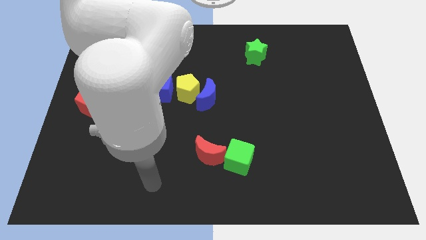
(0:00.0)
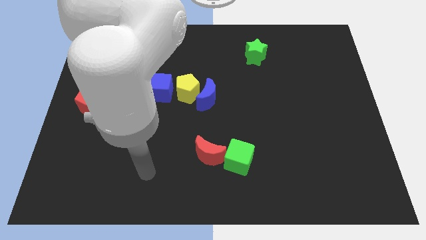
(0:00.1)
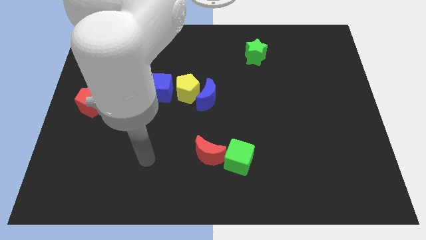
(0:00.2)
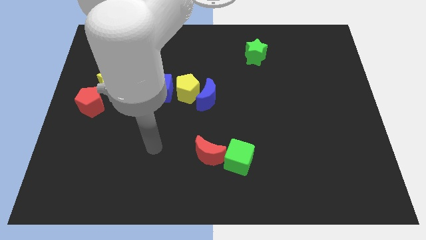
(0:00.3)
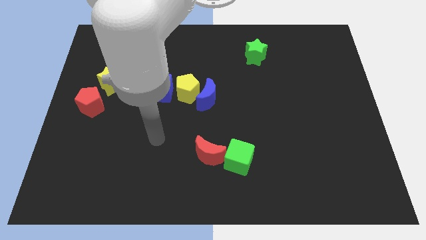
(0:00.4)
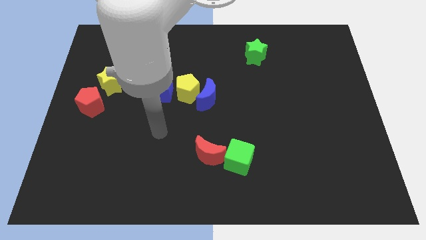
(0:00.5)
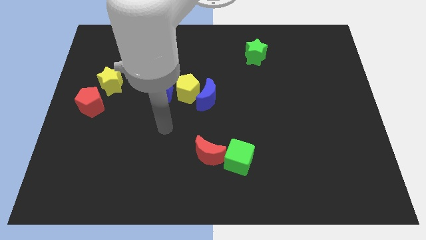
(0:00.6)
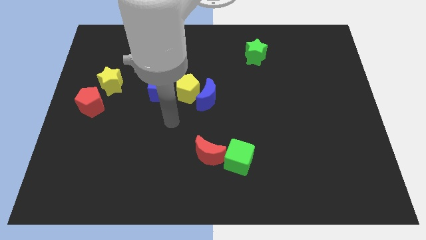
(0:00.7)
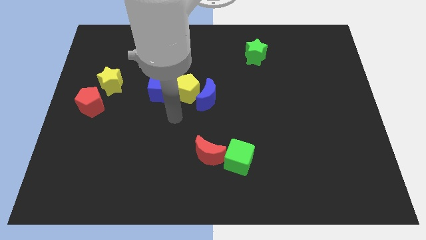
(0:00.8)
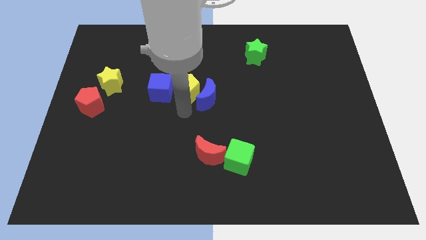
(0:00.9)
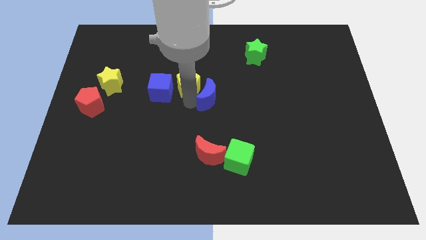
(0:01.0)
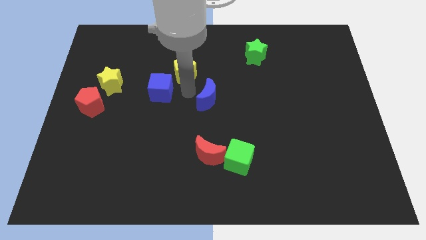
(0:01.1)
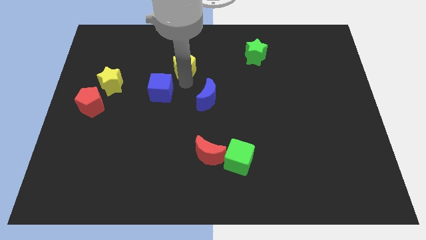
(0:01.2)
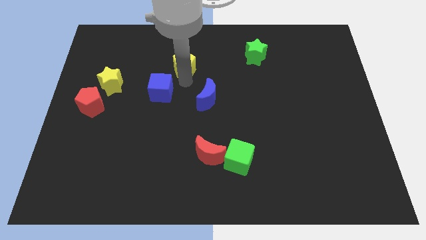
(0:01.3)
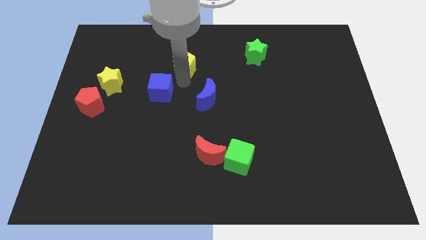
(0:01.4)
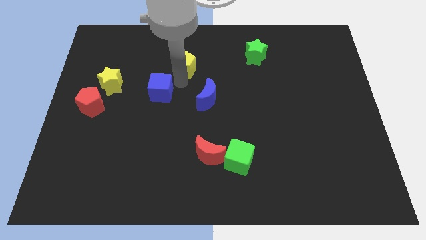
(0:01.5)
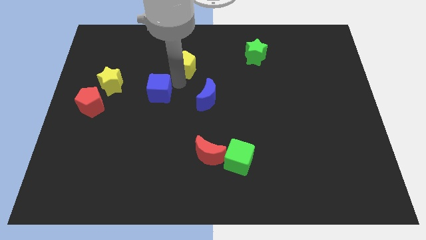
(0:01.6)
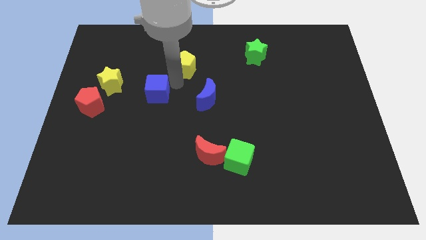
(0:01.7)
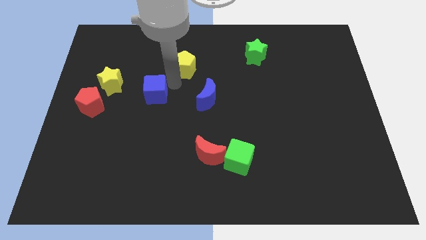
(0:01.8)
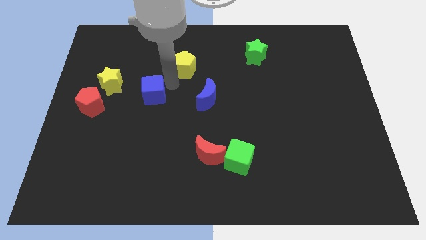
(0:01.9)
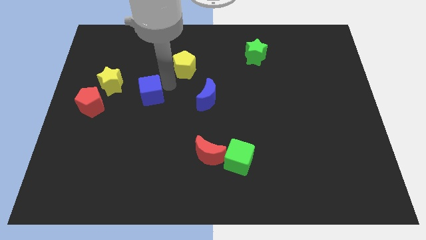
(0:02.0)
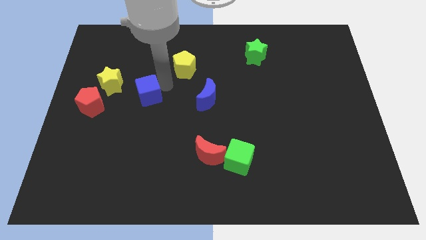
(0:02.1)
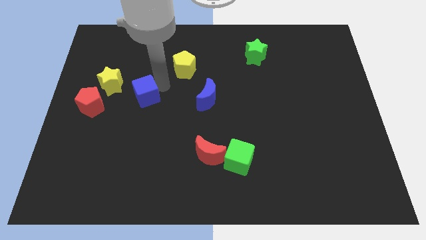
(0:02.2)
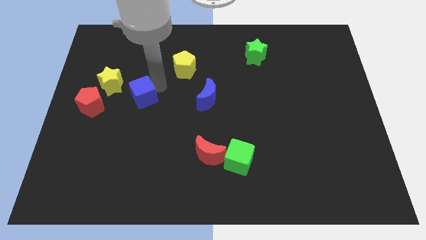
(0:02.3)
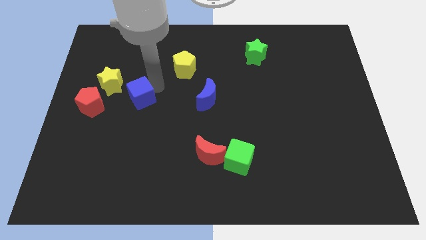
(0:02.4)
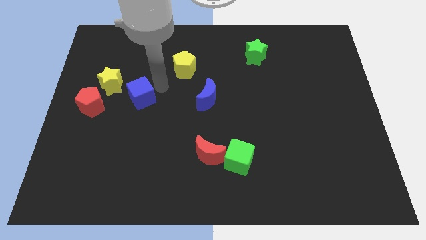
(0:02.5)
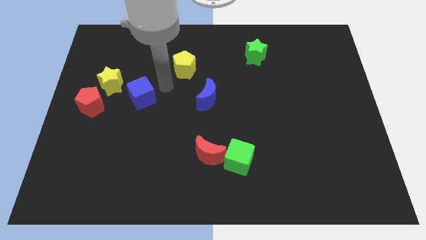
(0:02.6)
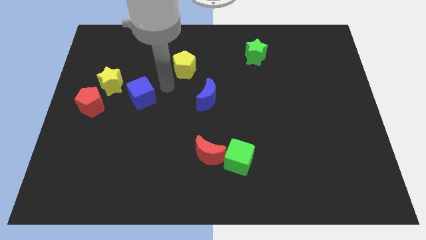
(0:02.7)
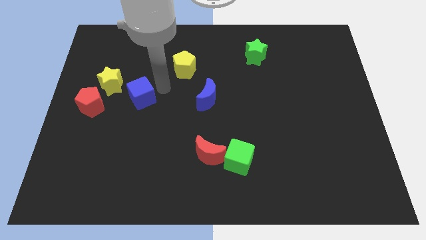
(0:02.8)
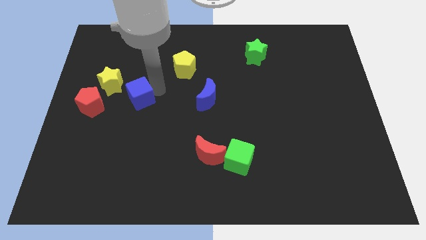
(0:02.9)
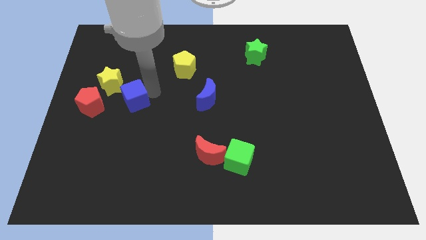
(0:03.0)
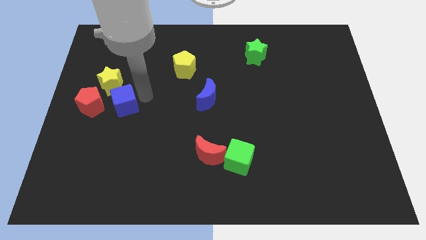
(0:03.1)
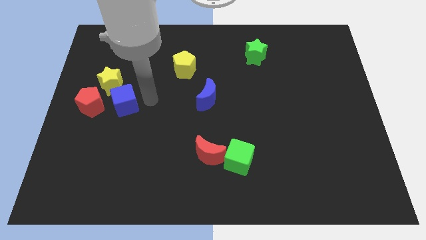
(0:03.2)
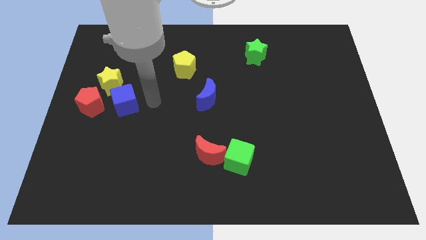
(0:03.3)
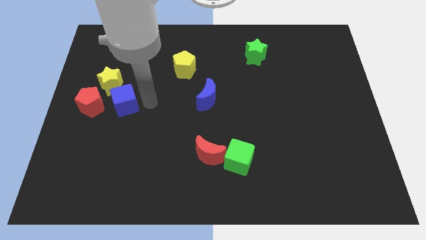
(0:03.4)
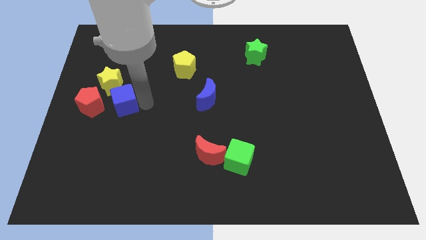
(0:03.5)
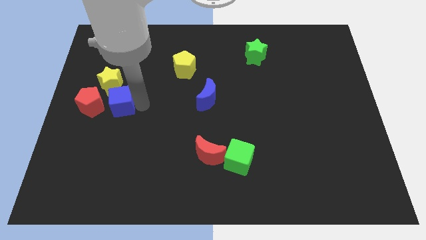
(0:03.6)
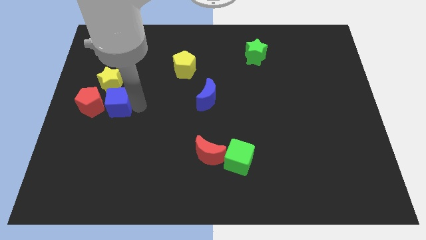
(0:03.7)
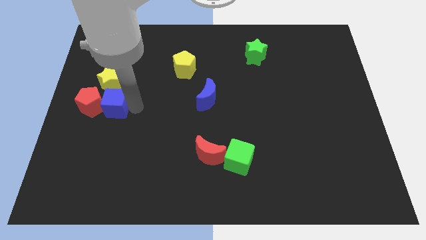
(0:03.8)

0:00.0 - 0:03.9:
slide the blue cube towards the red pentagon

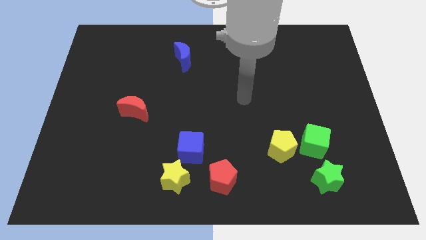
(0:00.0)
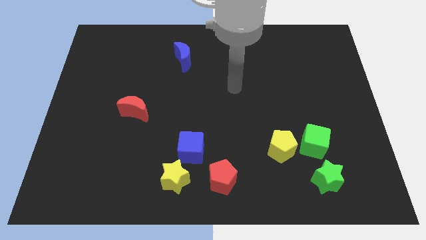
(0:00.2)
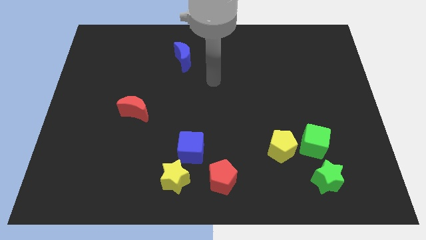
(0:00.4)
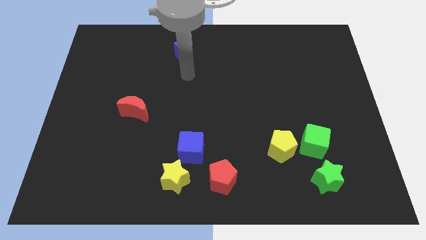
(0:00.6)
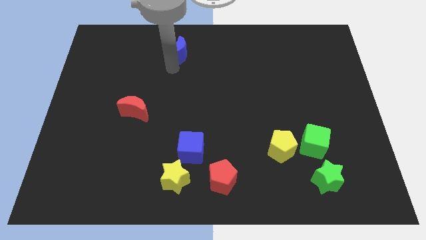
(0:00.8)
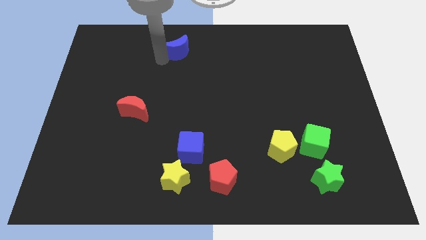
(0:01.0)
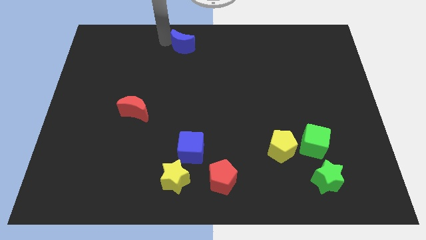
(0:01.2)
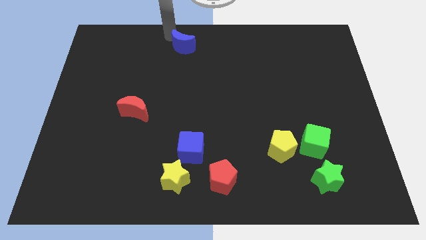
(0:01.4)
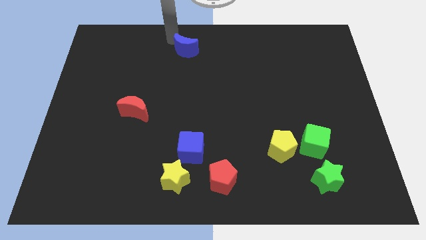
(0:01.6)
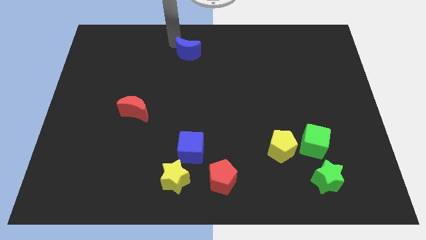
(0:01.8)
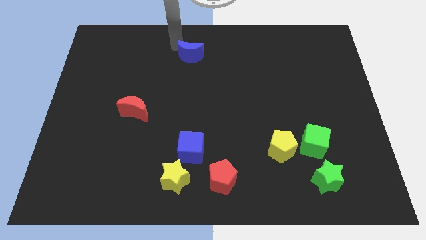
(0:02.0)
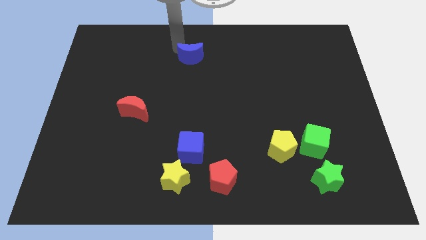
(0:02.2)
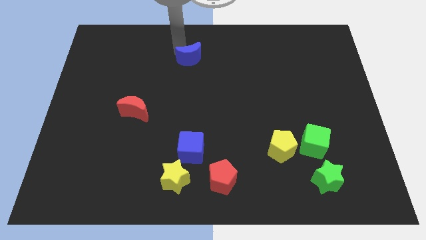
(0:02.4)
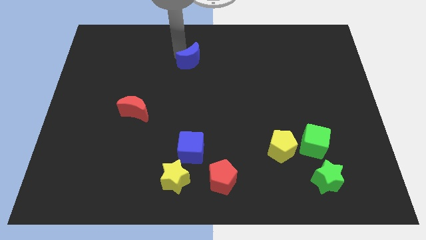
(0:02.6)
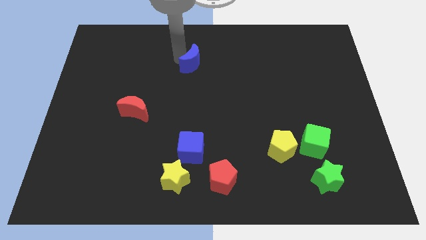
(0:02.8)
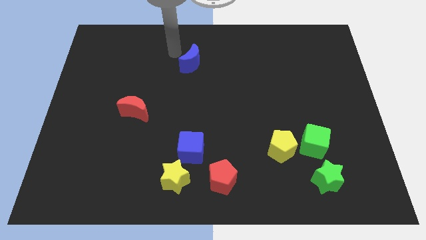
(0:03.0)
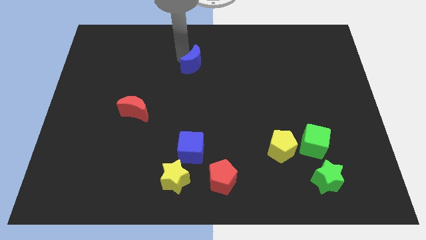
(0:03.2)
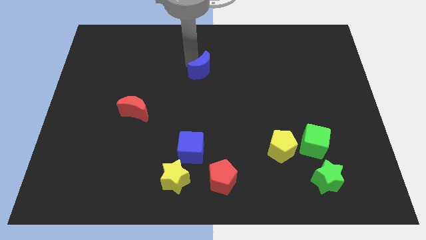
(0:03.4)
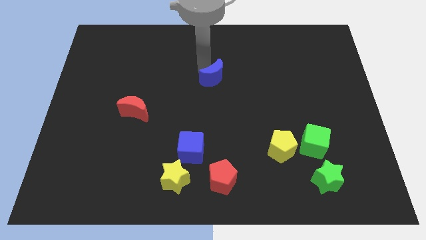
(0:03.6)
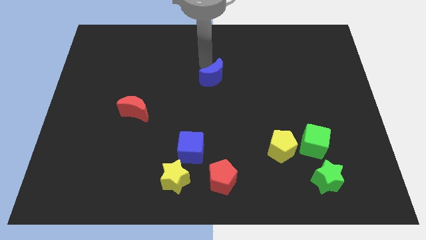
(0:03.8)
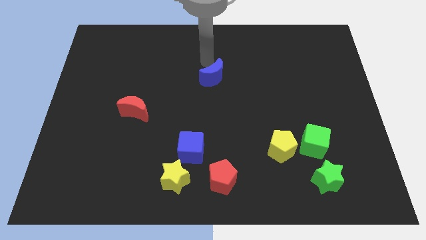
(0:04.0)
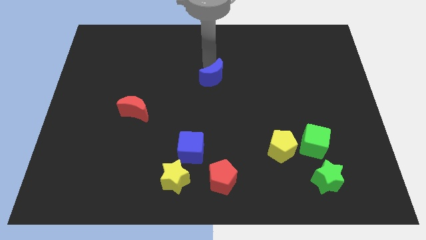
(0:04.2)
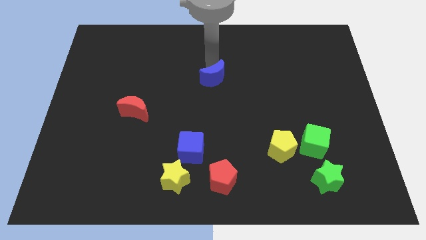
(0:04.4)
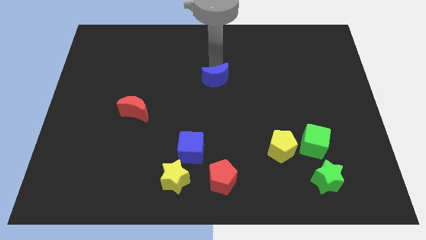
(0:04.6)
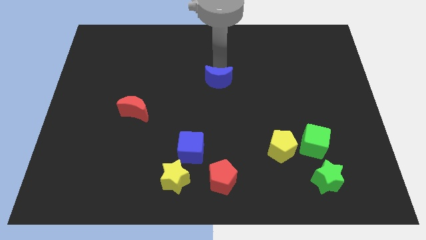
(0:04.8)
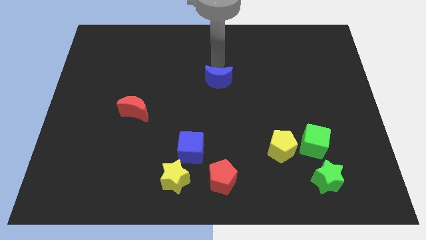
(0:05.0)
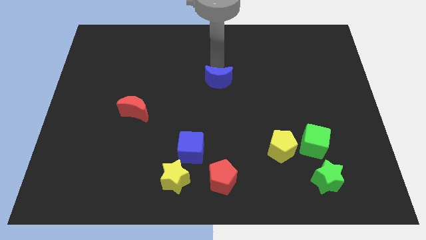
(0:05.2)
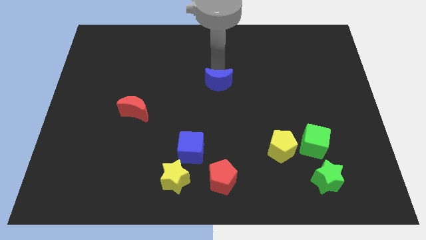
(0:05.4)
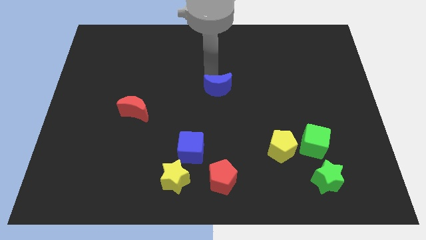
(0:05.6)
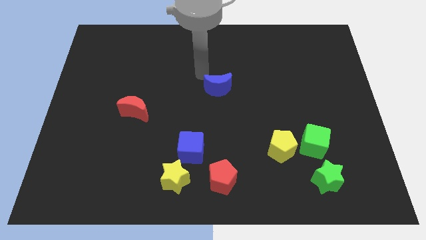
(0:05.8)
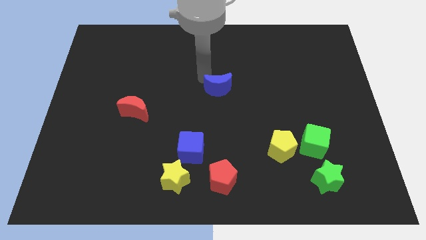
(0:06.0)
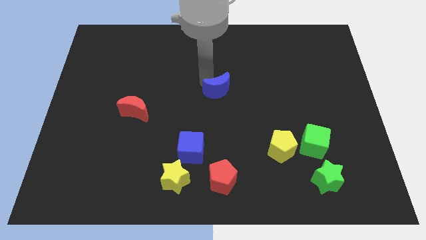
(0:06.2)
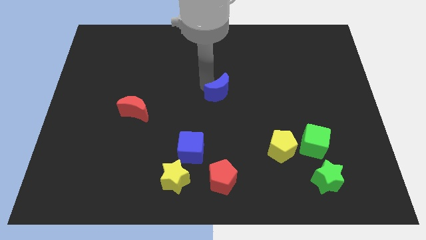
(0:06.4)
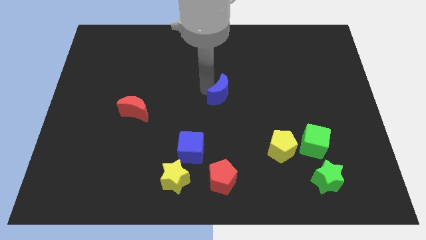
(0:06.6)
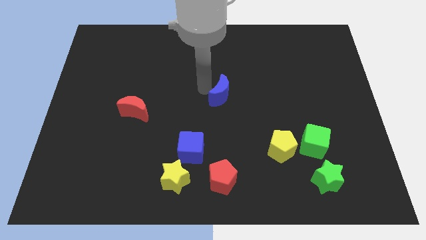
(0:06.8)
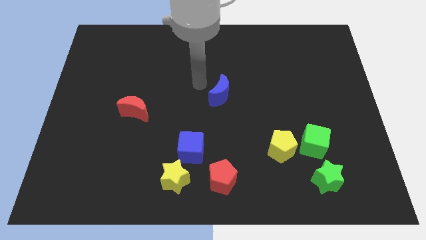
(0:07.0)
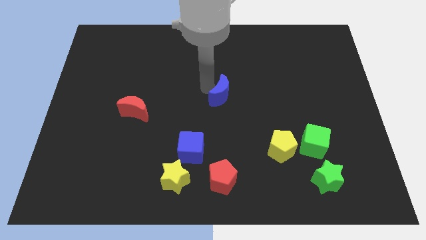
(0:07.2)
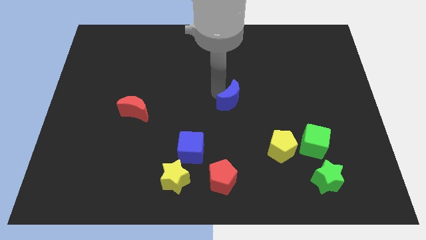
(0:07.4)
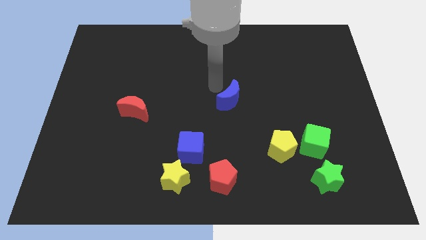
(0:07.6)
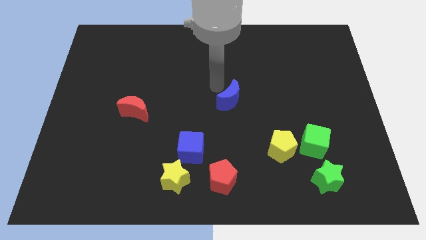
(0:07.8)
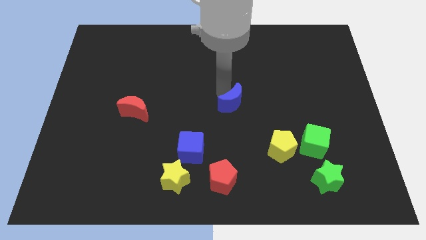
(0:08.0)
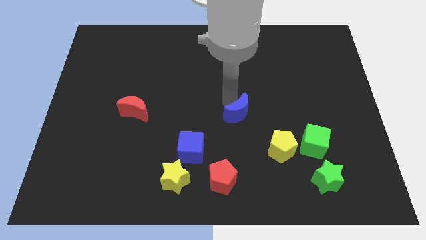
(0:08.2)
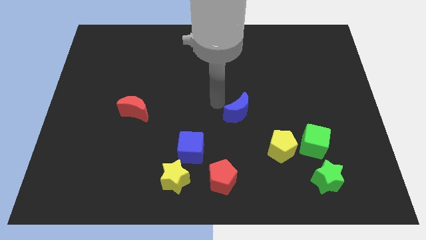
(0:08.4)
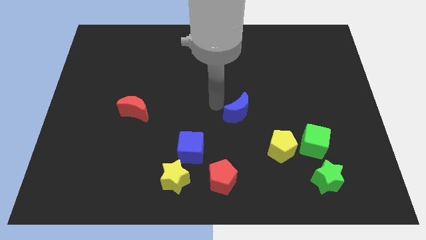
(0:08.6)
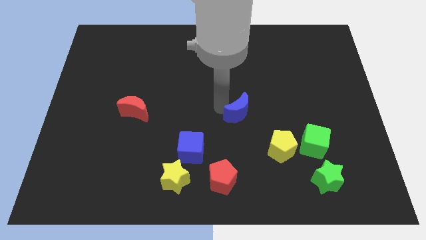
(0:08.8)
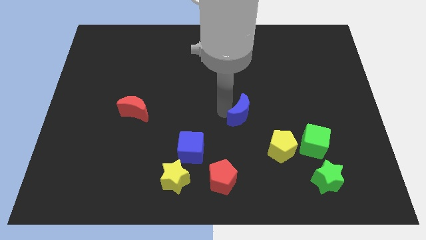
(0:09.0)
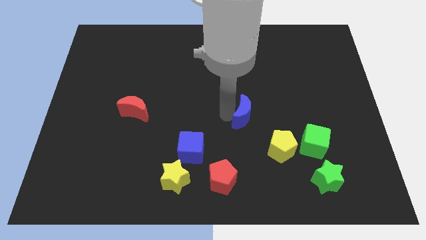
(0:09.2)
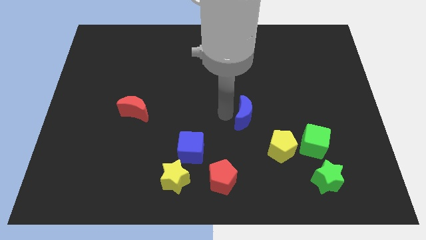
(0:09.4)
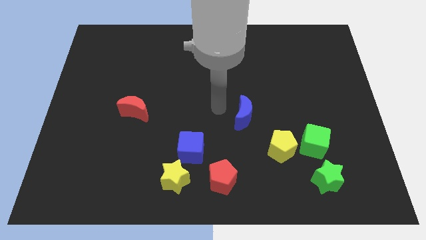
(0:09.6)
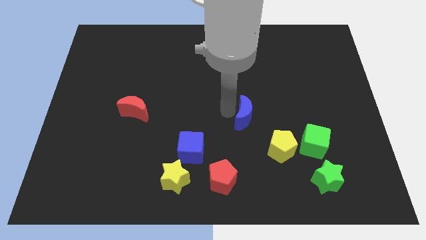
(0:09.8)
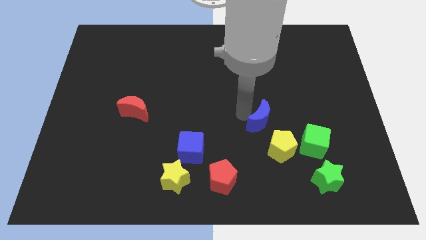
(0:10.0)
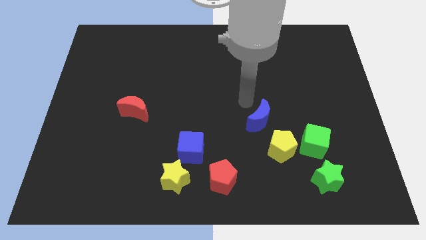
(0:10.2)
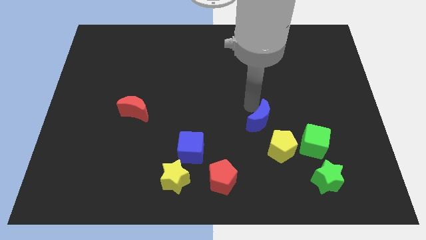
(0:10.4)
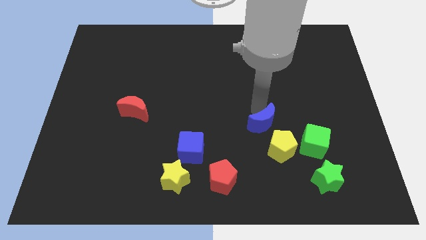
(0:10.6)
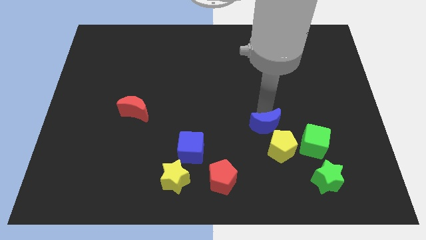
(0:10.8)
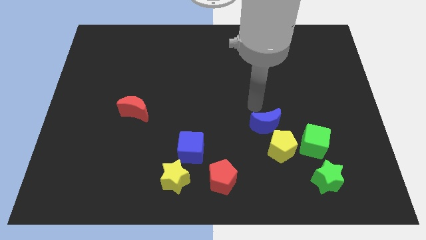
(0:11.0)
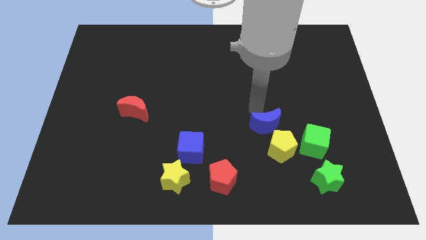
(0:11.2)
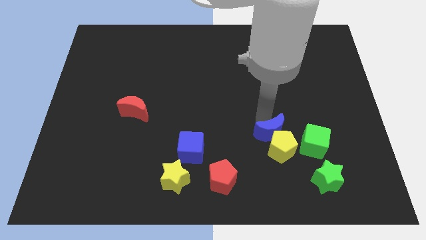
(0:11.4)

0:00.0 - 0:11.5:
put the blue moon close to the yellow pentagon
